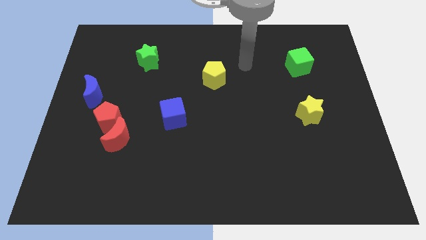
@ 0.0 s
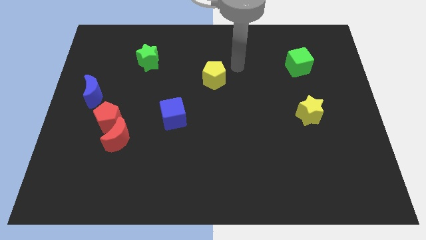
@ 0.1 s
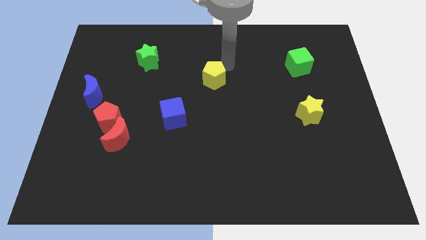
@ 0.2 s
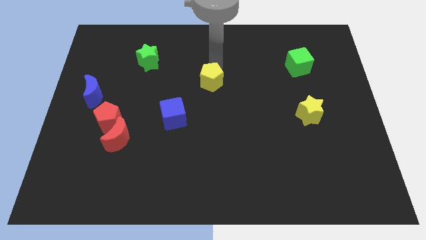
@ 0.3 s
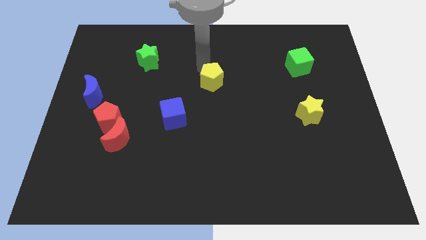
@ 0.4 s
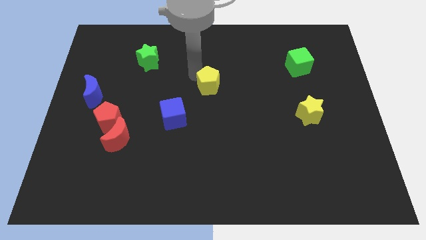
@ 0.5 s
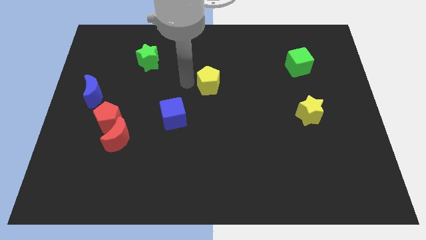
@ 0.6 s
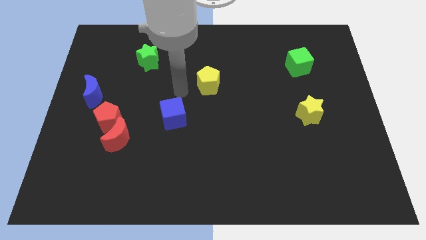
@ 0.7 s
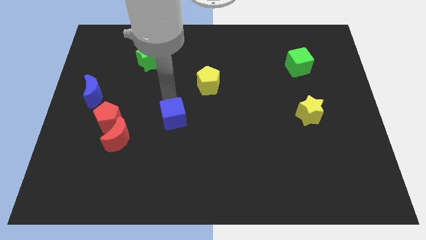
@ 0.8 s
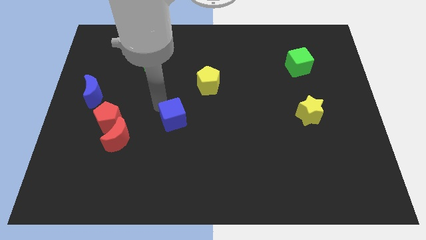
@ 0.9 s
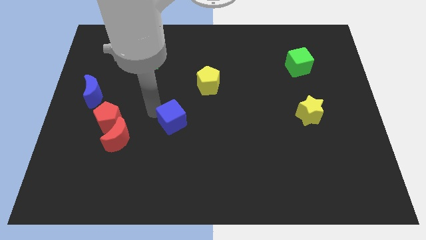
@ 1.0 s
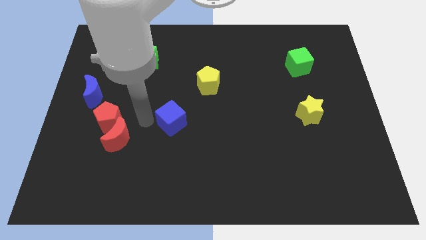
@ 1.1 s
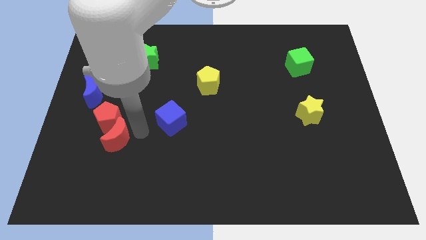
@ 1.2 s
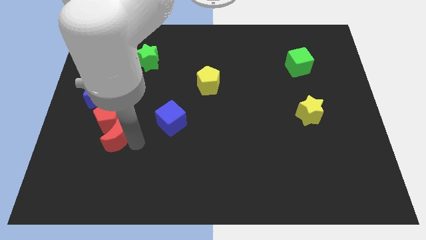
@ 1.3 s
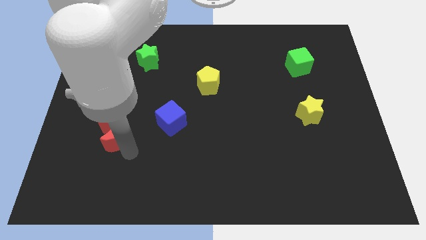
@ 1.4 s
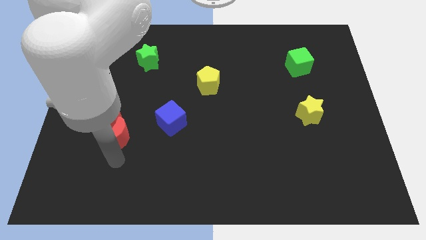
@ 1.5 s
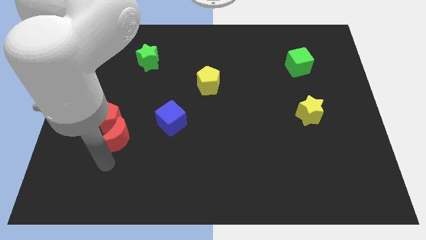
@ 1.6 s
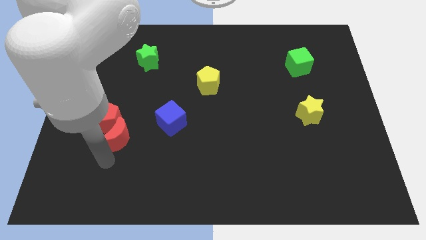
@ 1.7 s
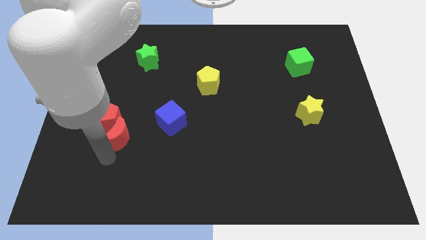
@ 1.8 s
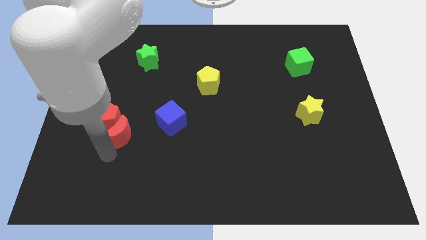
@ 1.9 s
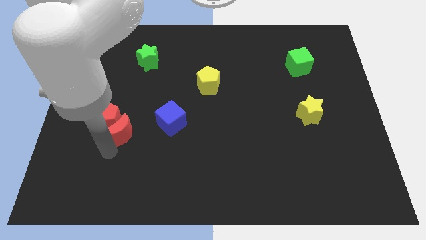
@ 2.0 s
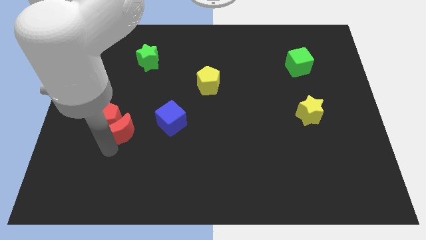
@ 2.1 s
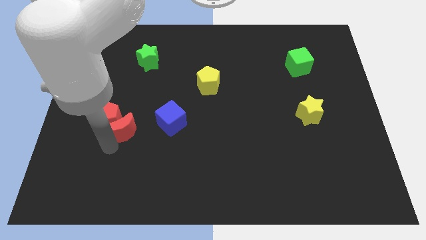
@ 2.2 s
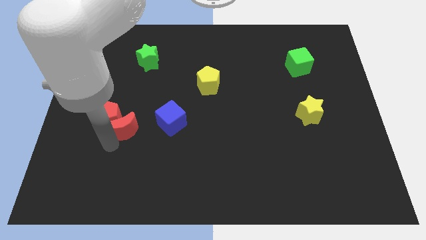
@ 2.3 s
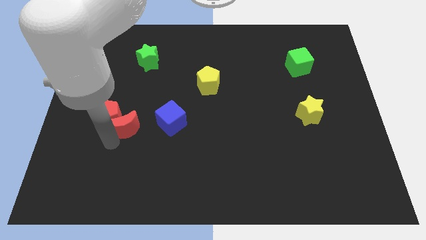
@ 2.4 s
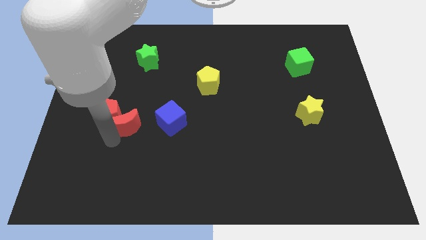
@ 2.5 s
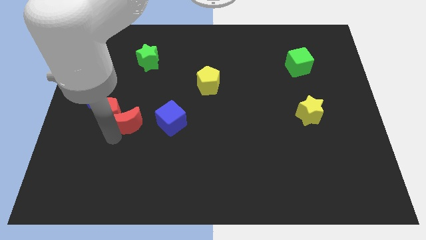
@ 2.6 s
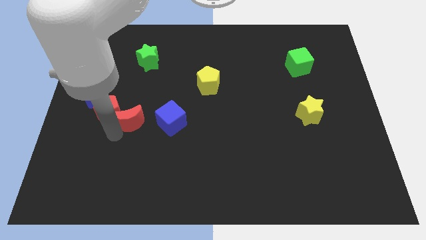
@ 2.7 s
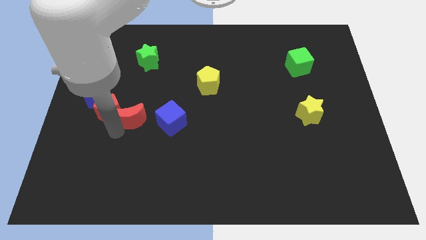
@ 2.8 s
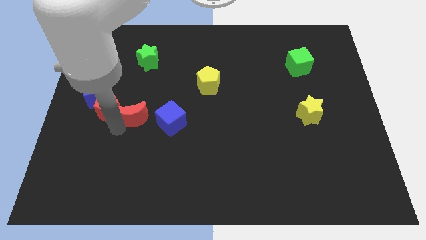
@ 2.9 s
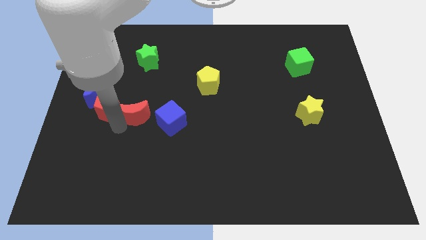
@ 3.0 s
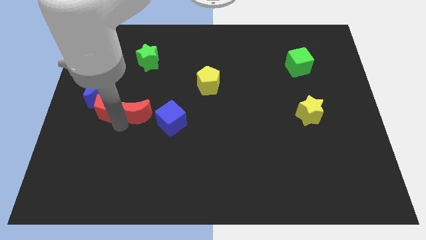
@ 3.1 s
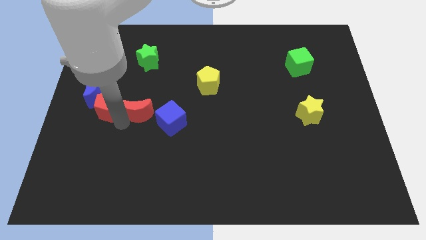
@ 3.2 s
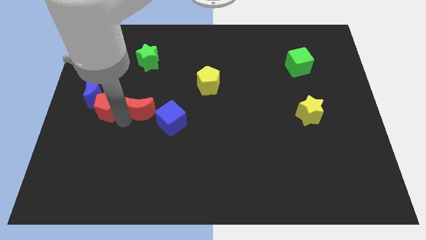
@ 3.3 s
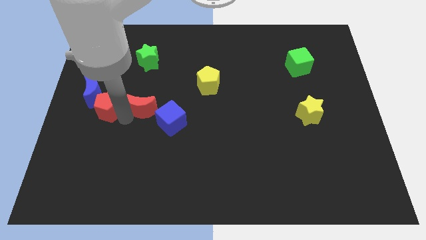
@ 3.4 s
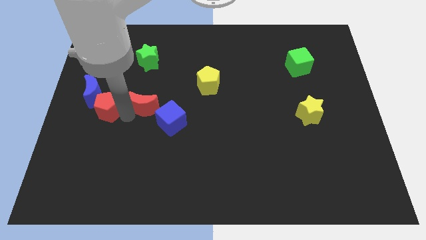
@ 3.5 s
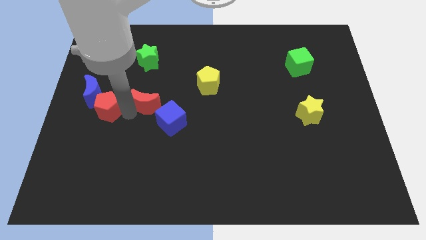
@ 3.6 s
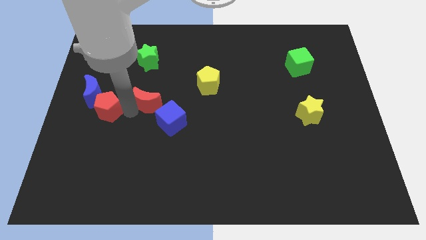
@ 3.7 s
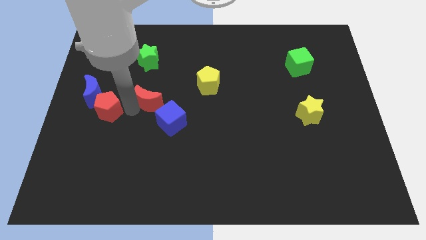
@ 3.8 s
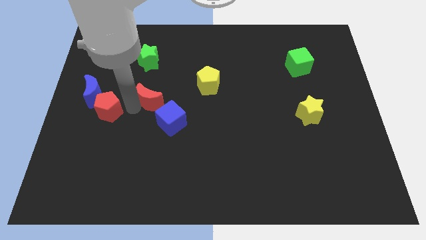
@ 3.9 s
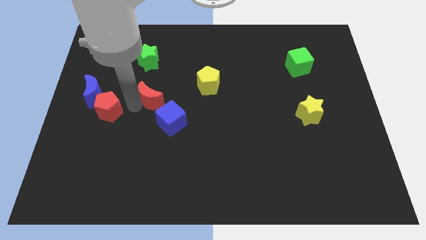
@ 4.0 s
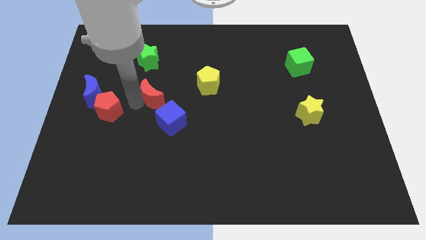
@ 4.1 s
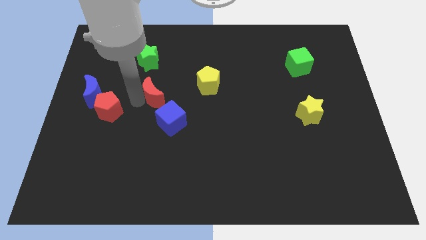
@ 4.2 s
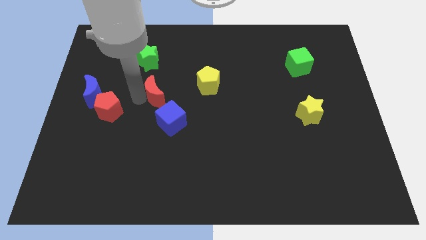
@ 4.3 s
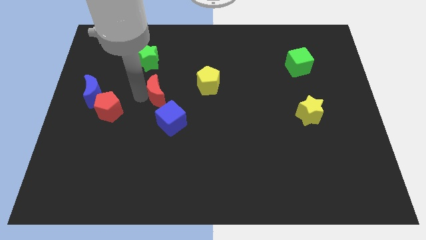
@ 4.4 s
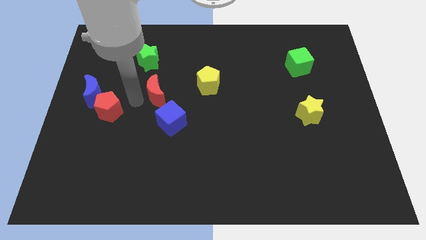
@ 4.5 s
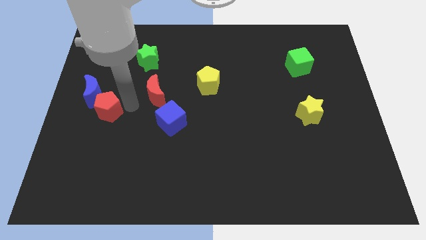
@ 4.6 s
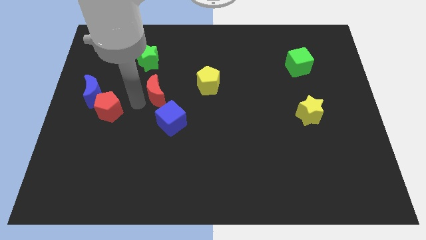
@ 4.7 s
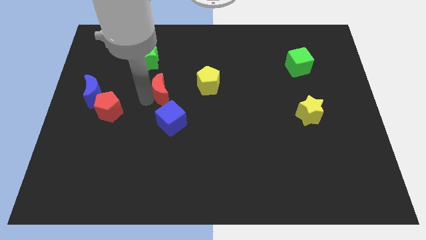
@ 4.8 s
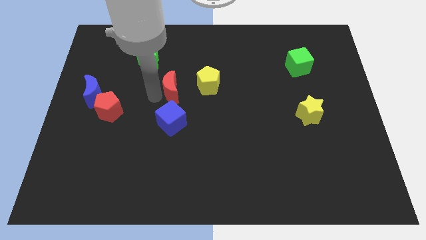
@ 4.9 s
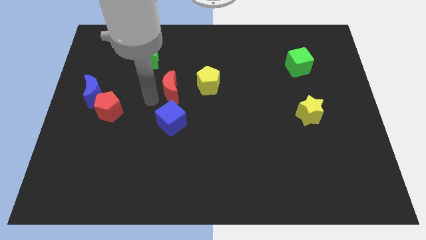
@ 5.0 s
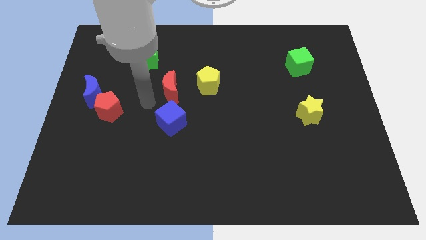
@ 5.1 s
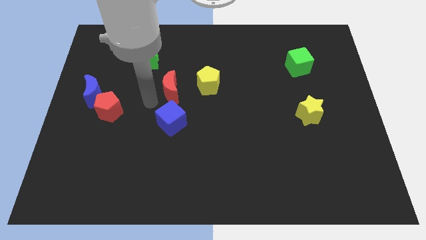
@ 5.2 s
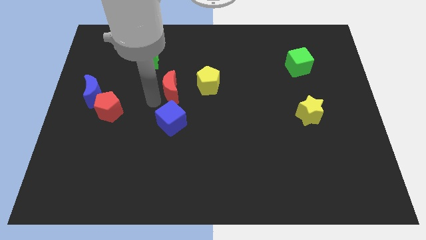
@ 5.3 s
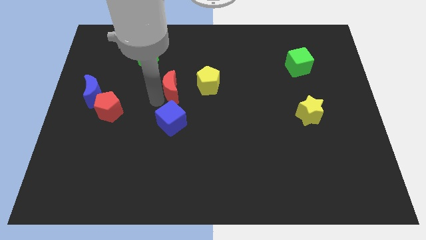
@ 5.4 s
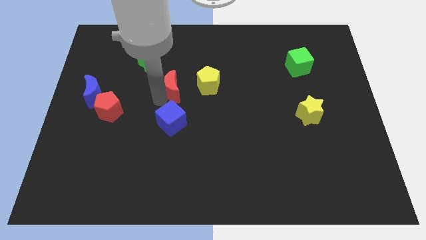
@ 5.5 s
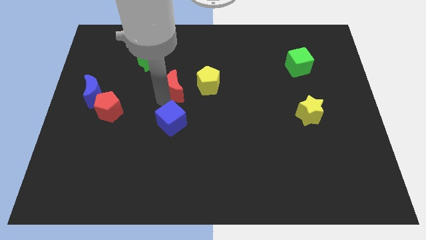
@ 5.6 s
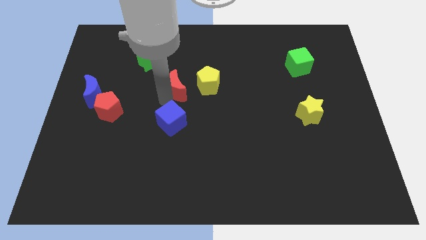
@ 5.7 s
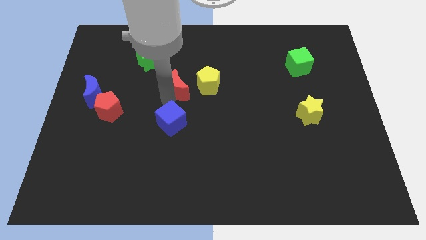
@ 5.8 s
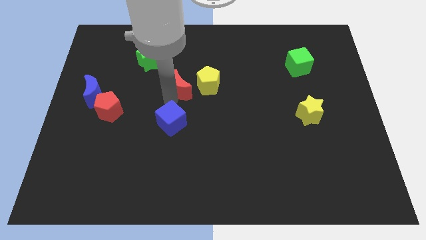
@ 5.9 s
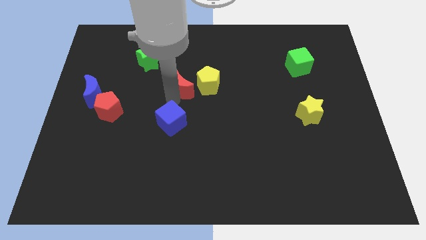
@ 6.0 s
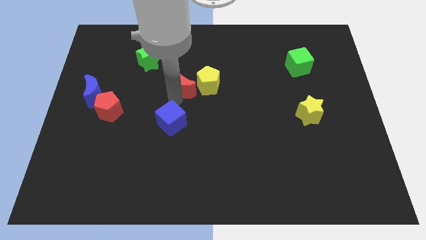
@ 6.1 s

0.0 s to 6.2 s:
slide the red moon diagonally upwards and right

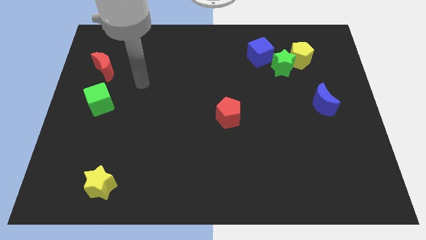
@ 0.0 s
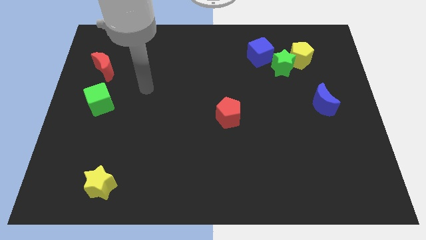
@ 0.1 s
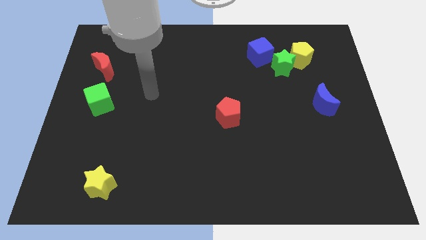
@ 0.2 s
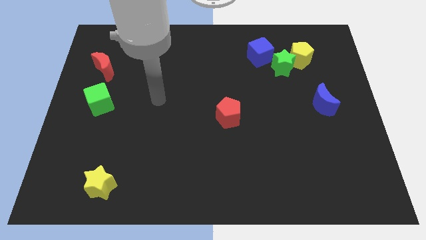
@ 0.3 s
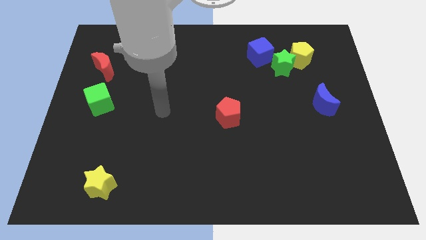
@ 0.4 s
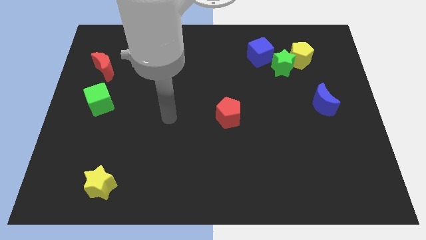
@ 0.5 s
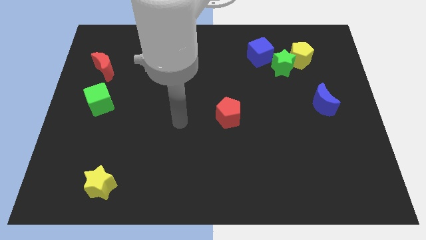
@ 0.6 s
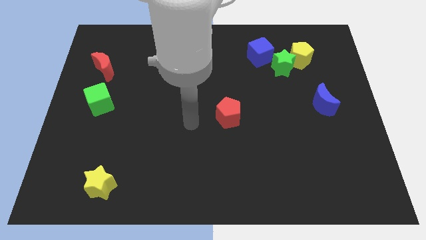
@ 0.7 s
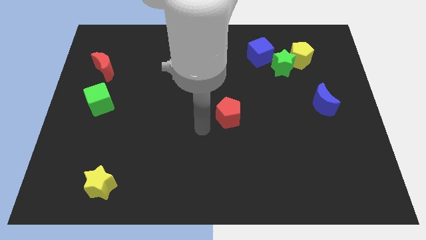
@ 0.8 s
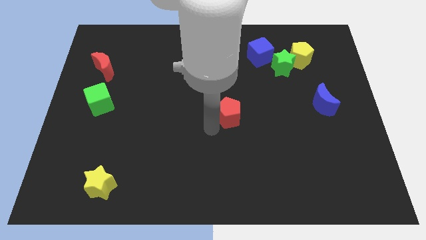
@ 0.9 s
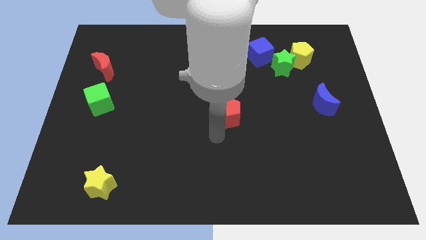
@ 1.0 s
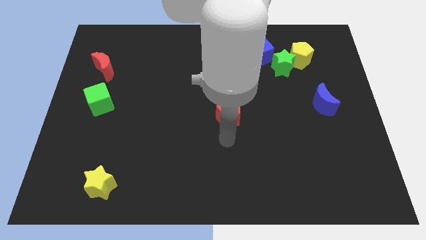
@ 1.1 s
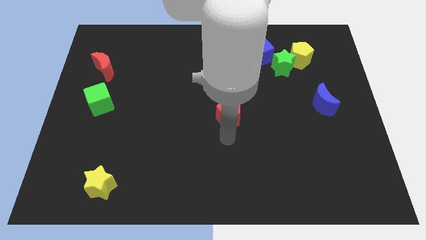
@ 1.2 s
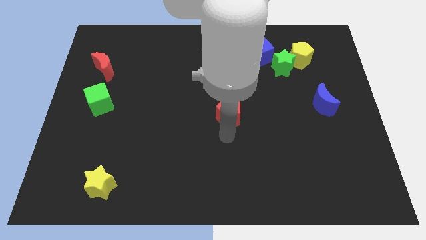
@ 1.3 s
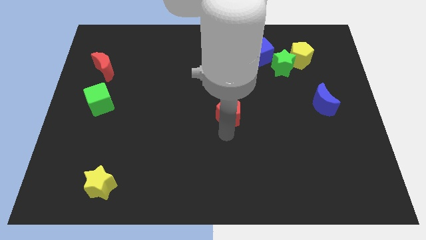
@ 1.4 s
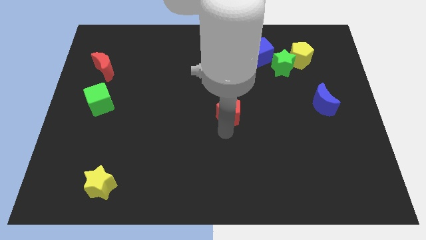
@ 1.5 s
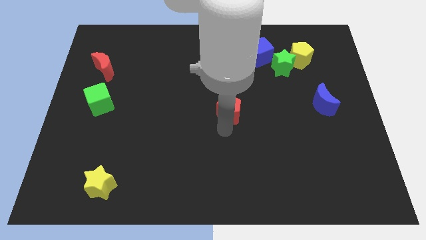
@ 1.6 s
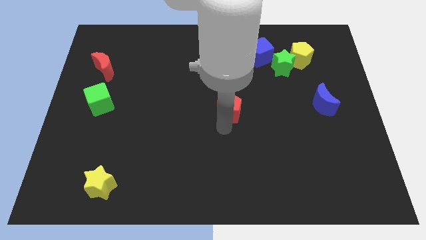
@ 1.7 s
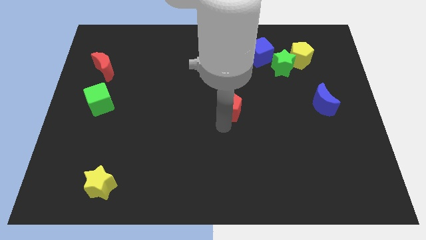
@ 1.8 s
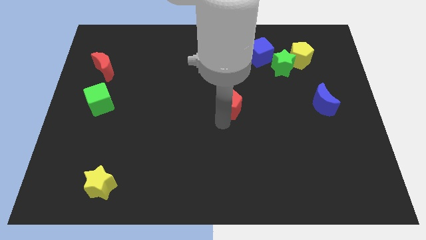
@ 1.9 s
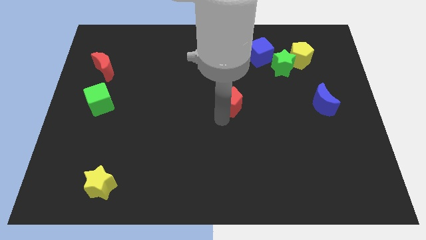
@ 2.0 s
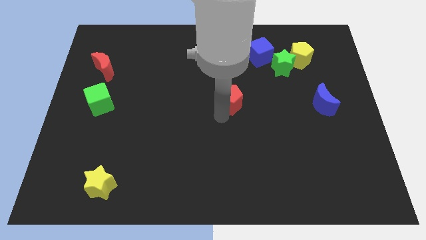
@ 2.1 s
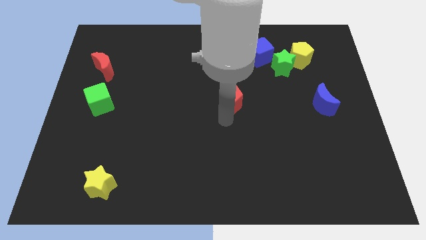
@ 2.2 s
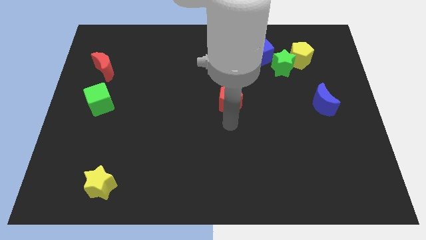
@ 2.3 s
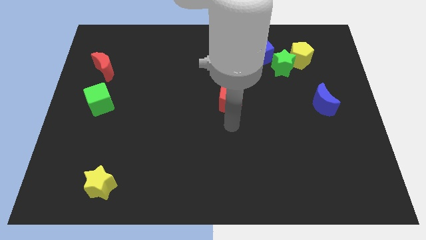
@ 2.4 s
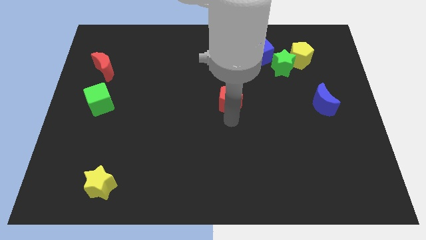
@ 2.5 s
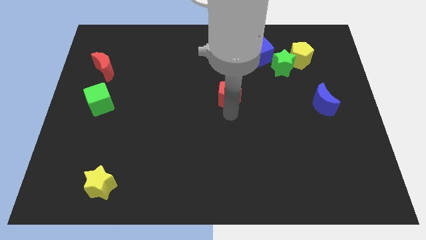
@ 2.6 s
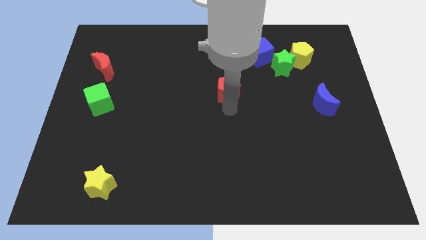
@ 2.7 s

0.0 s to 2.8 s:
push the red pentagon upwards a little
